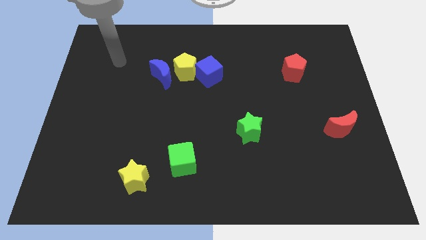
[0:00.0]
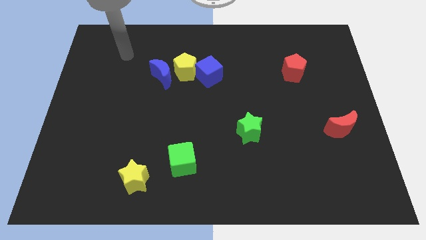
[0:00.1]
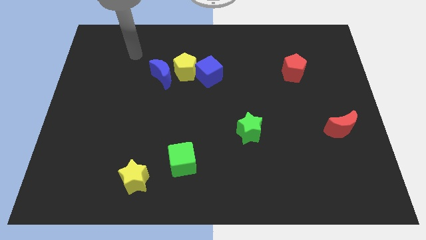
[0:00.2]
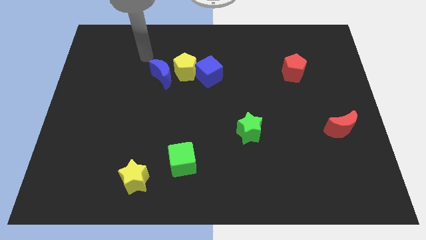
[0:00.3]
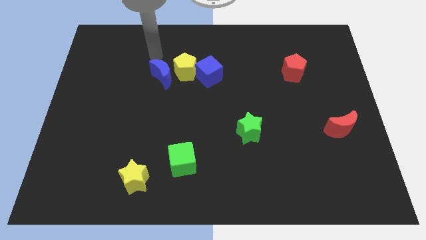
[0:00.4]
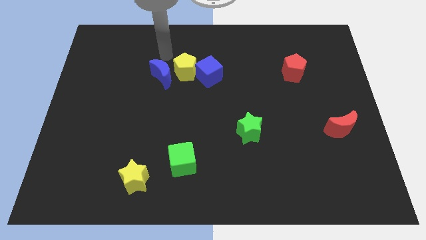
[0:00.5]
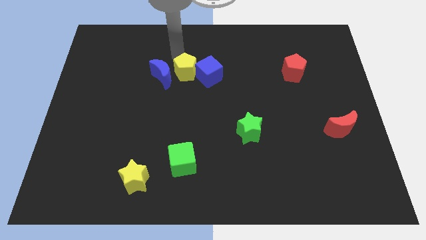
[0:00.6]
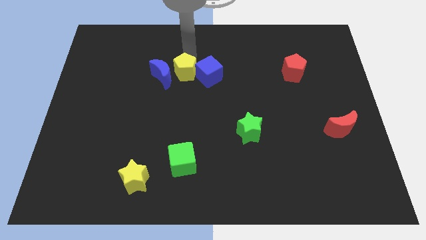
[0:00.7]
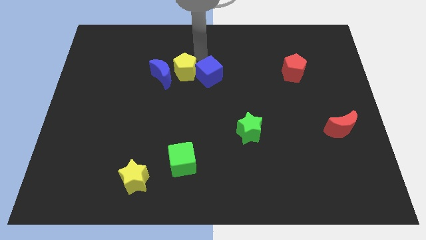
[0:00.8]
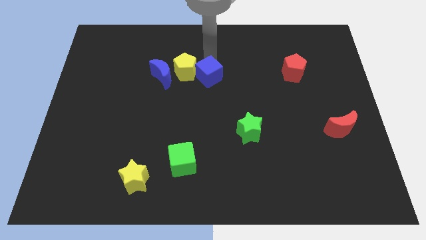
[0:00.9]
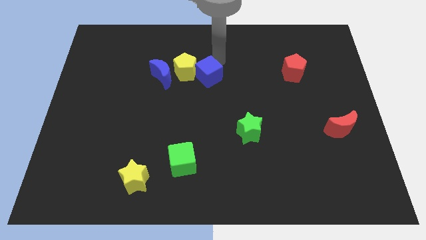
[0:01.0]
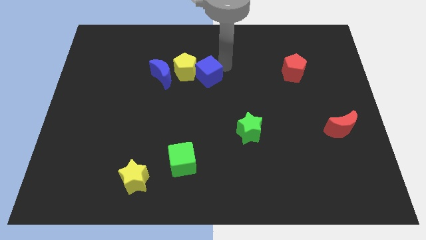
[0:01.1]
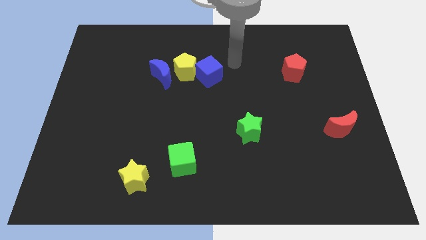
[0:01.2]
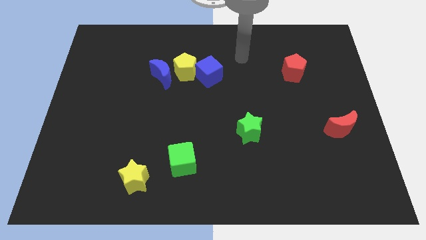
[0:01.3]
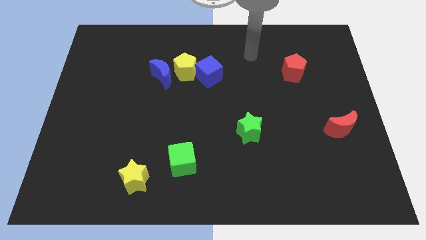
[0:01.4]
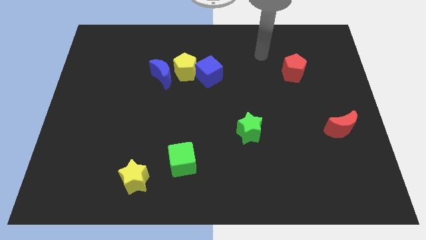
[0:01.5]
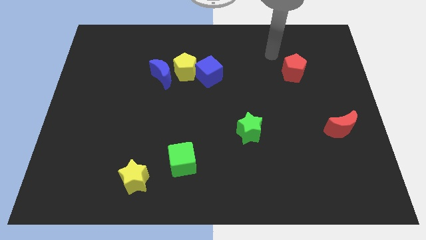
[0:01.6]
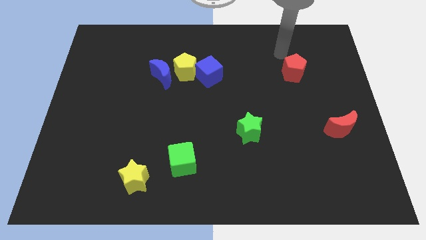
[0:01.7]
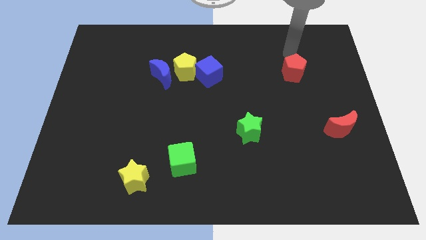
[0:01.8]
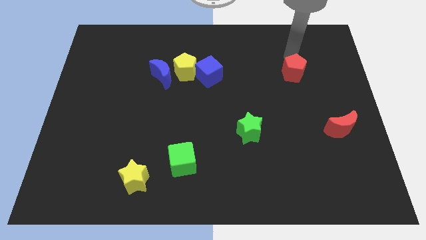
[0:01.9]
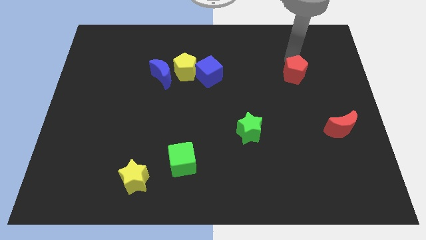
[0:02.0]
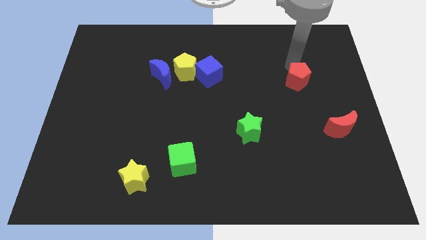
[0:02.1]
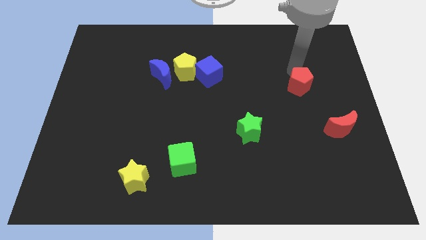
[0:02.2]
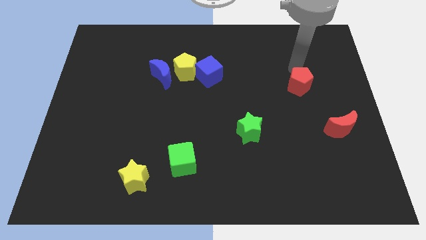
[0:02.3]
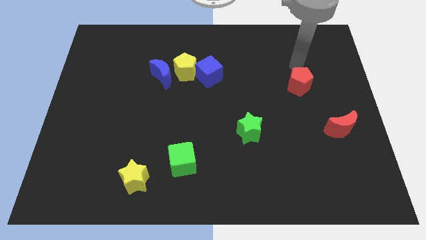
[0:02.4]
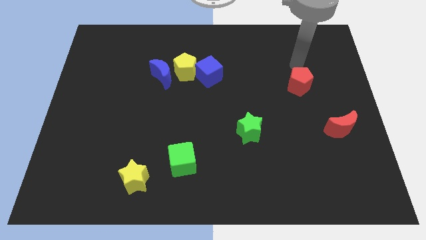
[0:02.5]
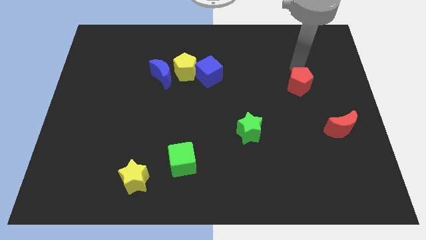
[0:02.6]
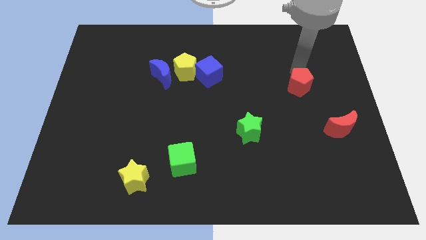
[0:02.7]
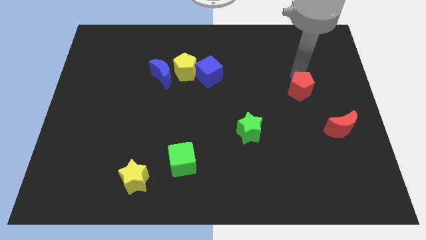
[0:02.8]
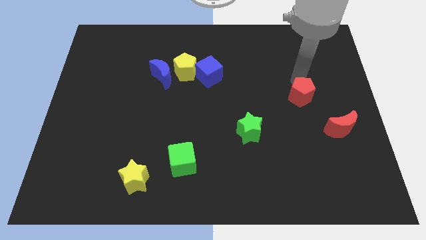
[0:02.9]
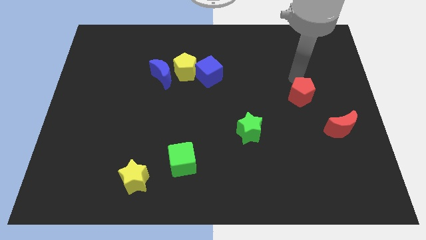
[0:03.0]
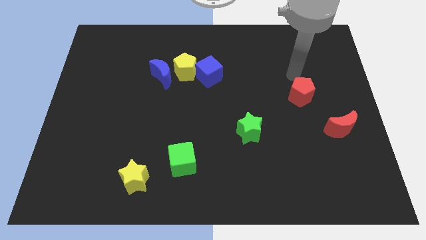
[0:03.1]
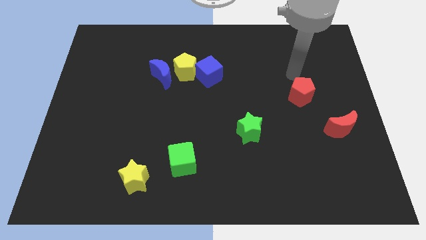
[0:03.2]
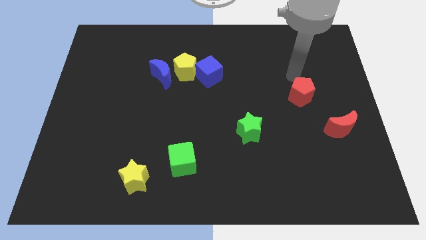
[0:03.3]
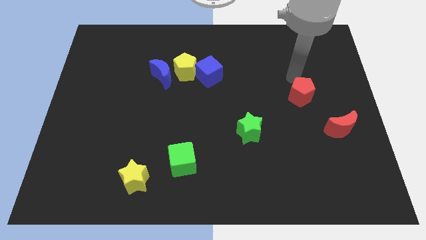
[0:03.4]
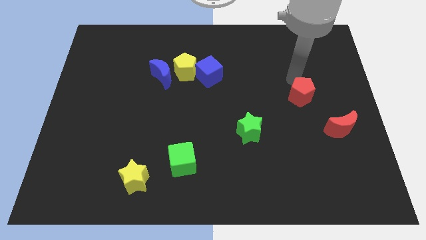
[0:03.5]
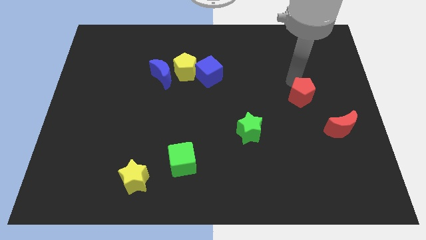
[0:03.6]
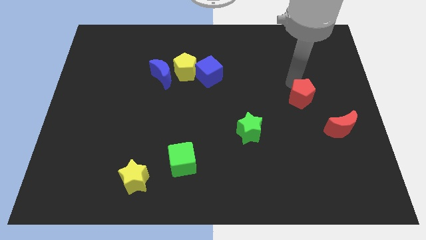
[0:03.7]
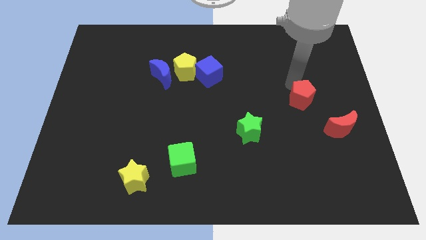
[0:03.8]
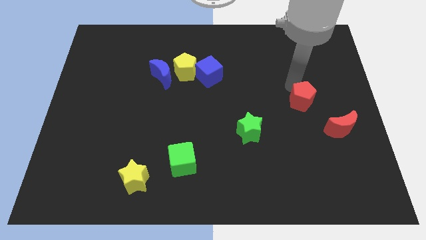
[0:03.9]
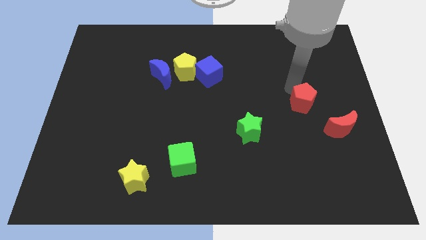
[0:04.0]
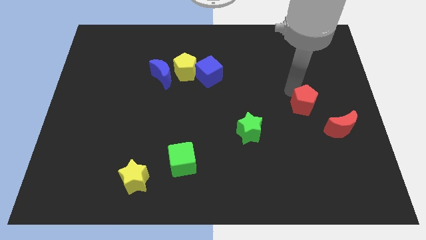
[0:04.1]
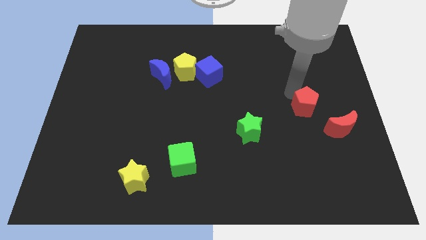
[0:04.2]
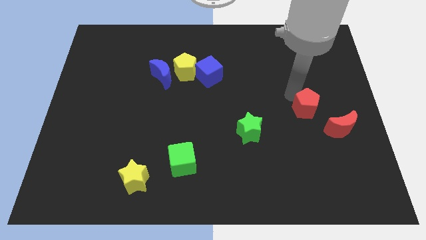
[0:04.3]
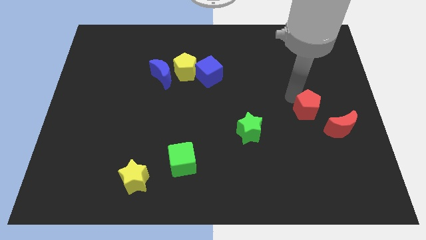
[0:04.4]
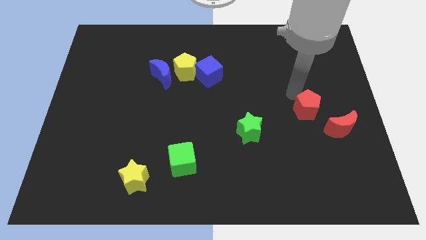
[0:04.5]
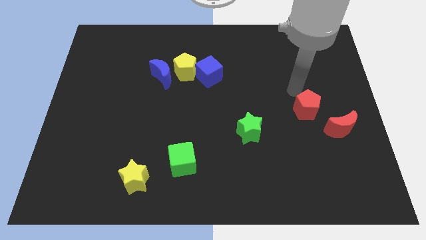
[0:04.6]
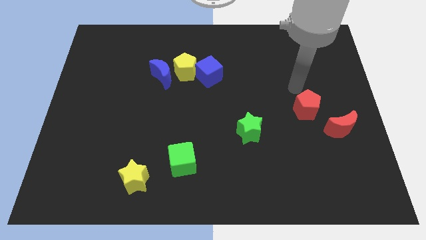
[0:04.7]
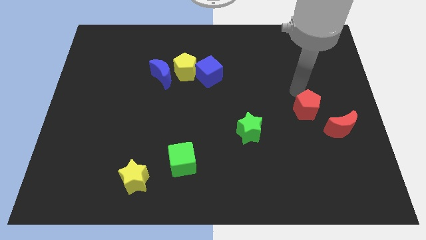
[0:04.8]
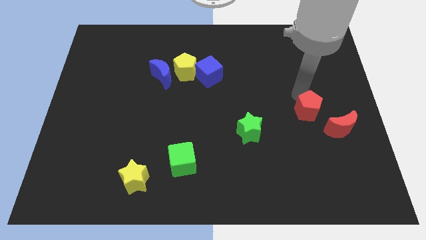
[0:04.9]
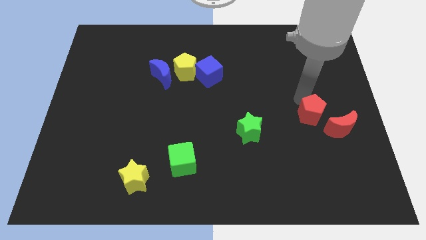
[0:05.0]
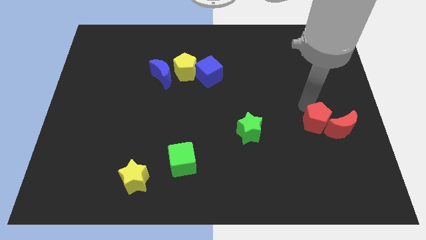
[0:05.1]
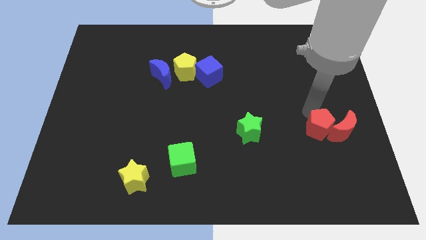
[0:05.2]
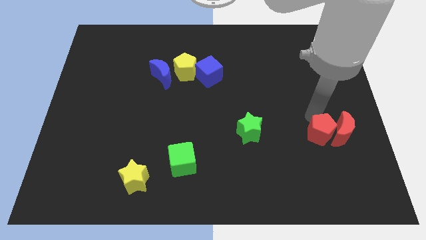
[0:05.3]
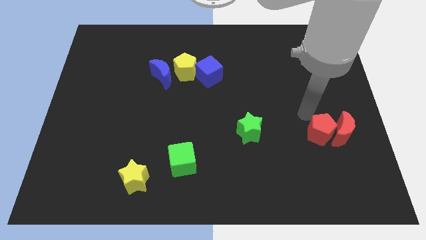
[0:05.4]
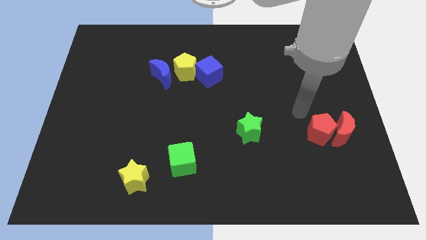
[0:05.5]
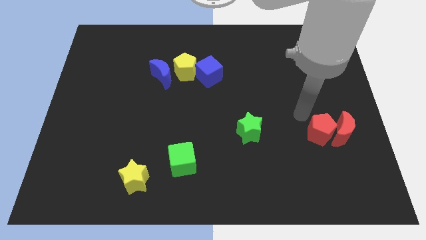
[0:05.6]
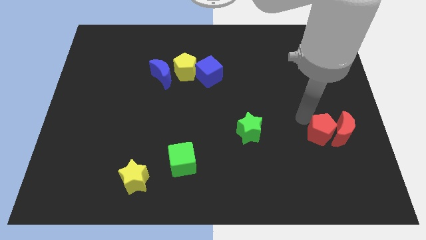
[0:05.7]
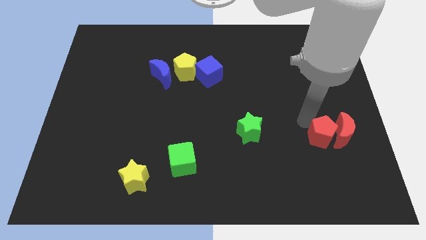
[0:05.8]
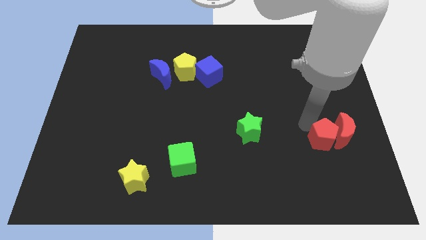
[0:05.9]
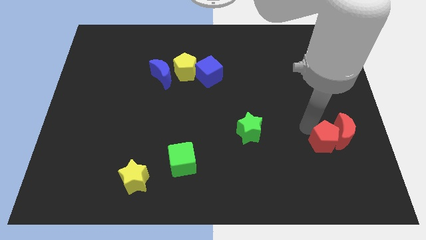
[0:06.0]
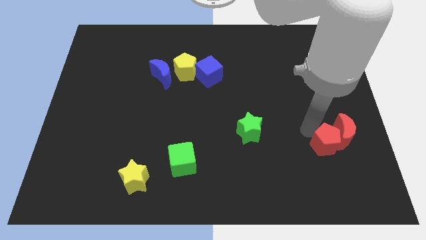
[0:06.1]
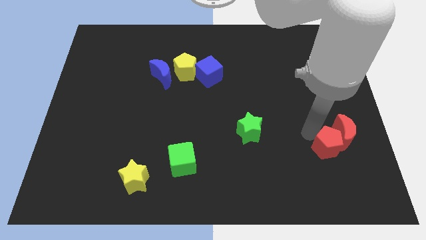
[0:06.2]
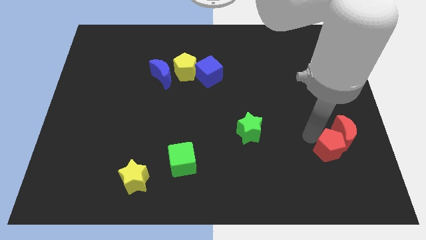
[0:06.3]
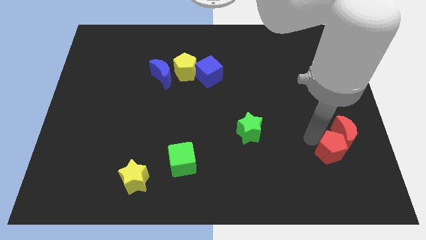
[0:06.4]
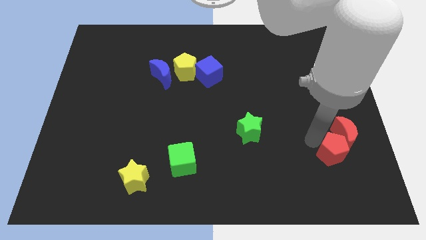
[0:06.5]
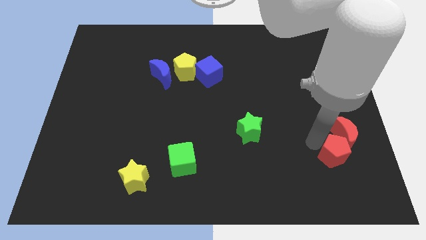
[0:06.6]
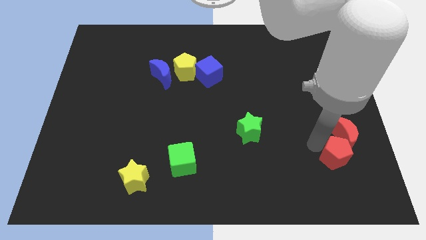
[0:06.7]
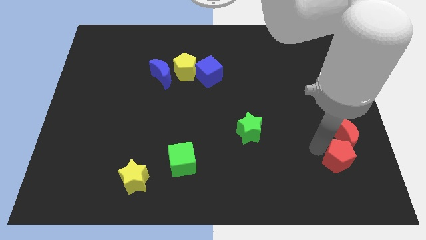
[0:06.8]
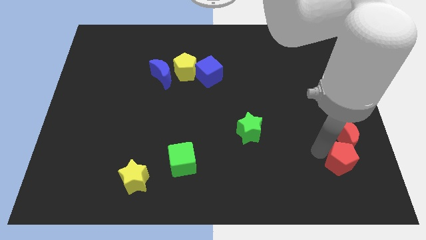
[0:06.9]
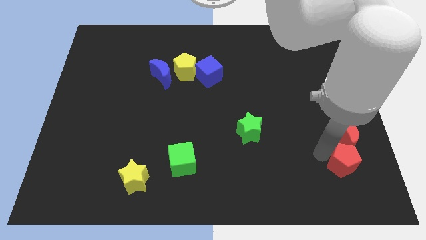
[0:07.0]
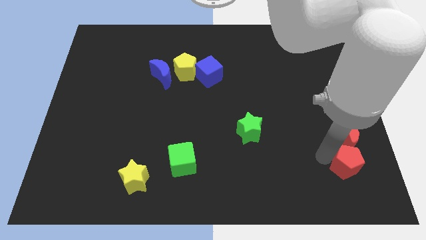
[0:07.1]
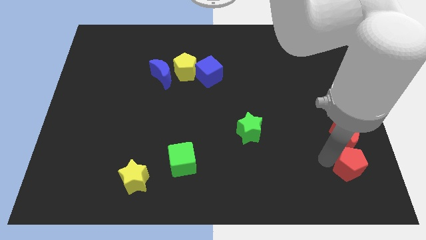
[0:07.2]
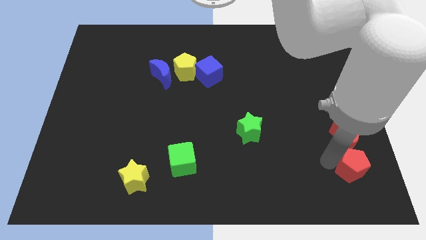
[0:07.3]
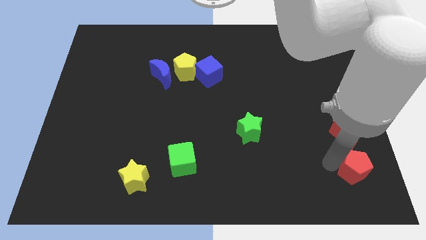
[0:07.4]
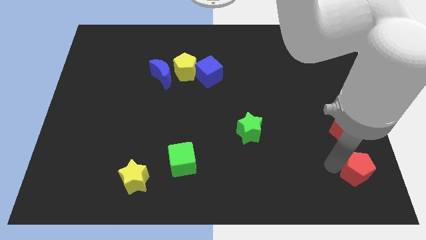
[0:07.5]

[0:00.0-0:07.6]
move the red pentagon to the bottom right
